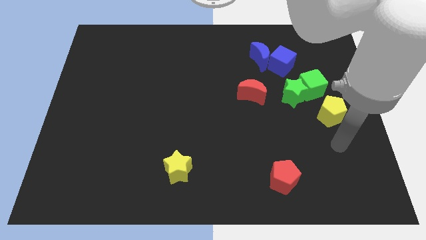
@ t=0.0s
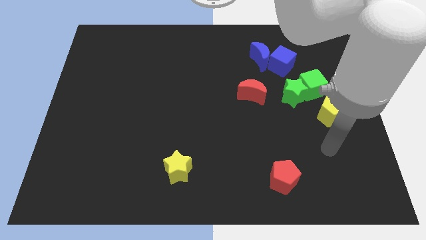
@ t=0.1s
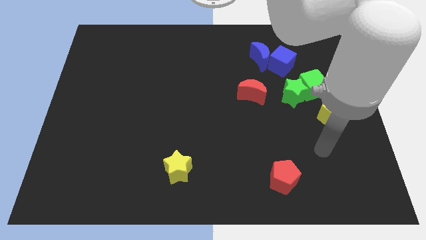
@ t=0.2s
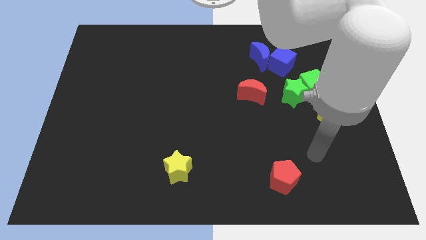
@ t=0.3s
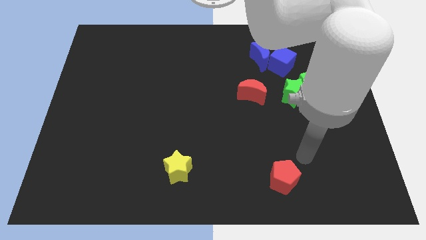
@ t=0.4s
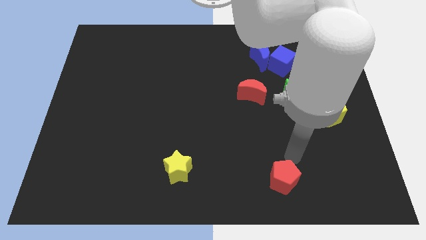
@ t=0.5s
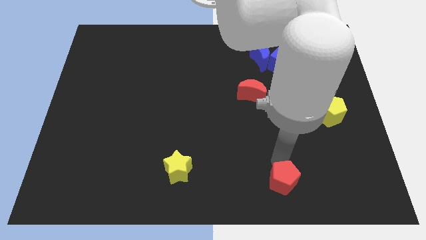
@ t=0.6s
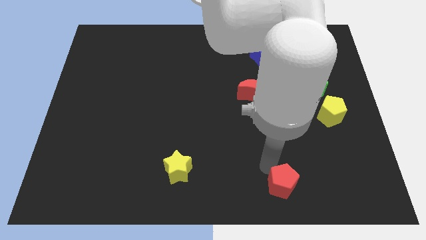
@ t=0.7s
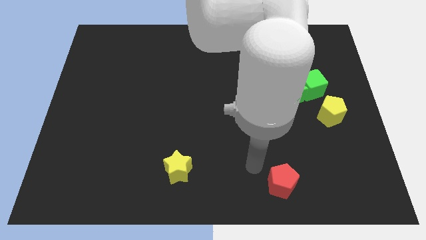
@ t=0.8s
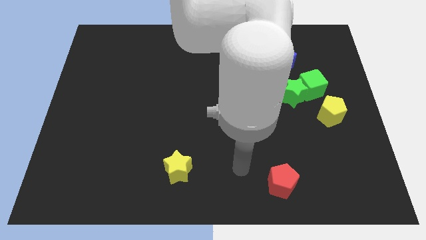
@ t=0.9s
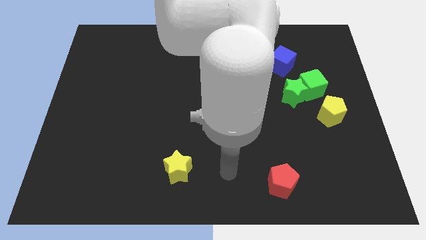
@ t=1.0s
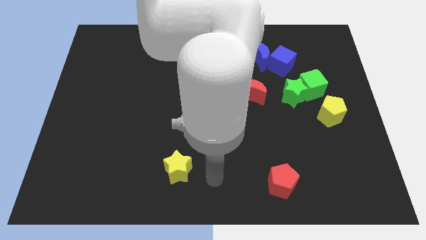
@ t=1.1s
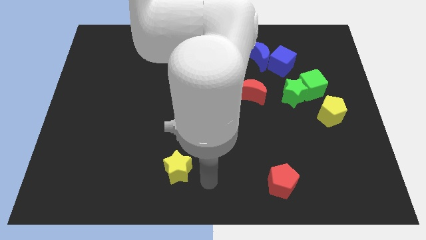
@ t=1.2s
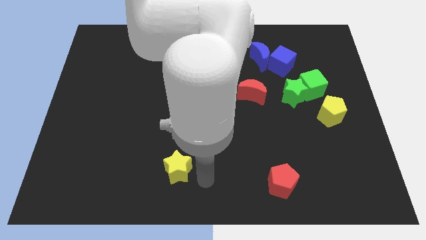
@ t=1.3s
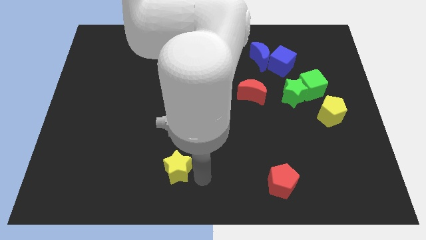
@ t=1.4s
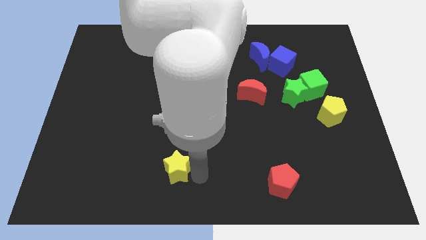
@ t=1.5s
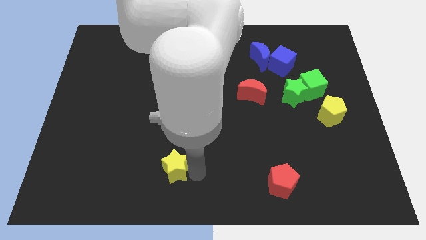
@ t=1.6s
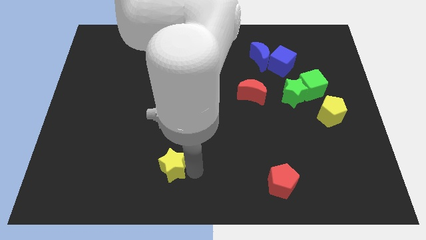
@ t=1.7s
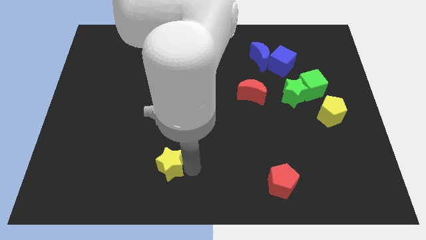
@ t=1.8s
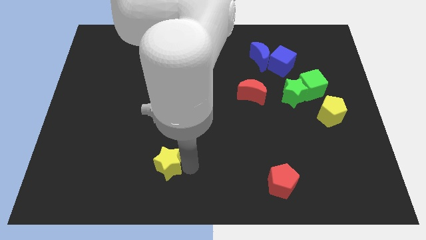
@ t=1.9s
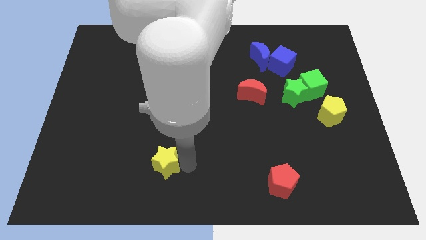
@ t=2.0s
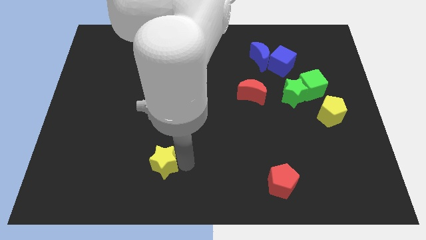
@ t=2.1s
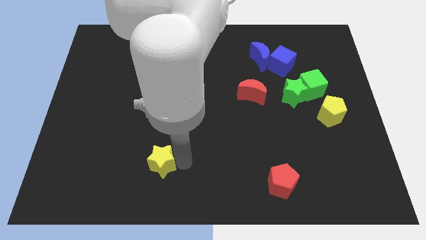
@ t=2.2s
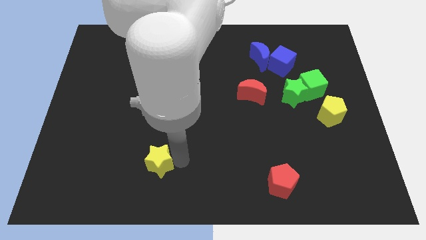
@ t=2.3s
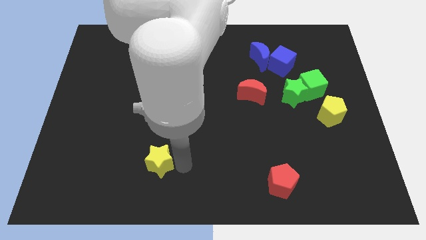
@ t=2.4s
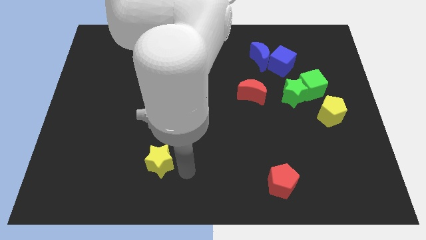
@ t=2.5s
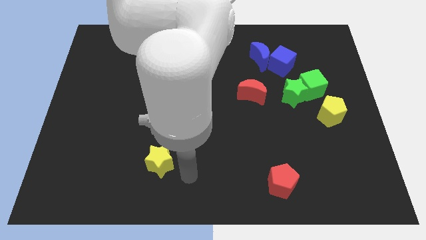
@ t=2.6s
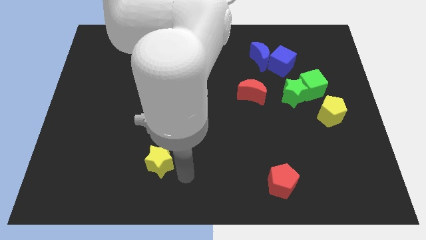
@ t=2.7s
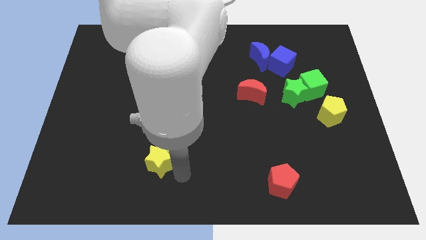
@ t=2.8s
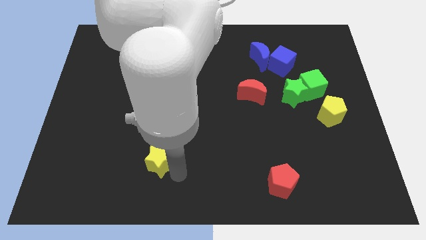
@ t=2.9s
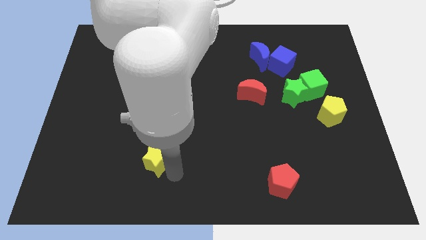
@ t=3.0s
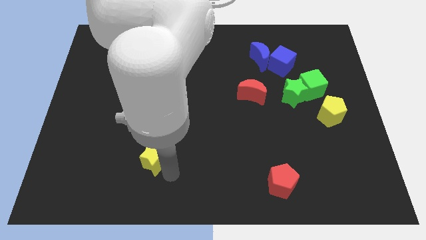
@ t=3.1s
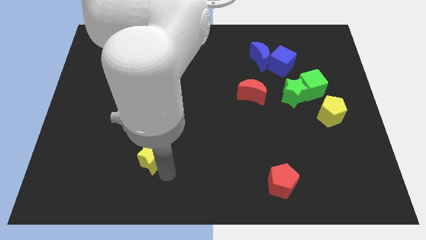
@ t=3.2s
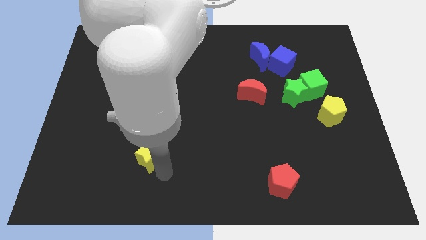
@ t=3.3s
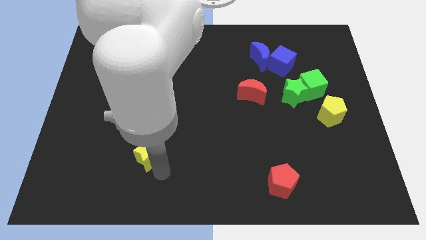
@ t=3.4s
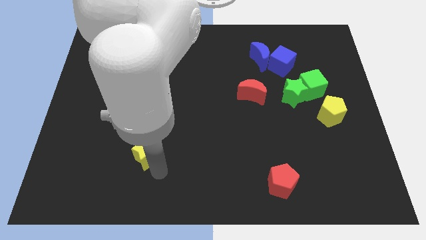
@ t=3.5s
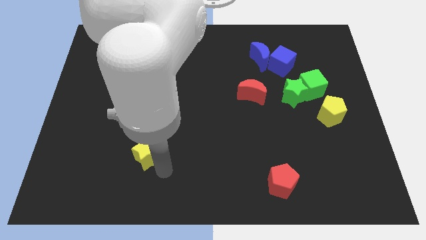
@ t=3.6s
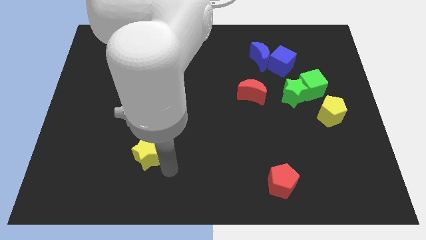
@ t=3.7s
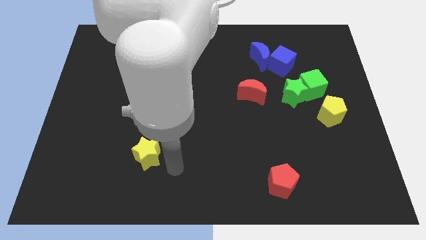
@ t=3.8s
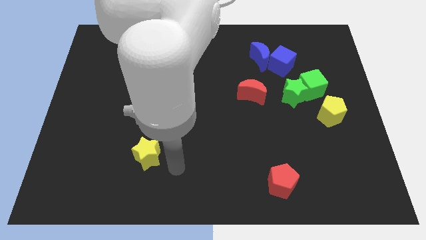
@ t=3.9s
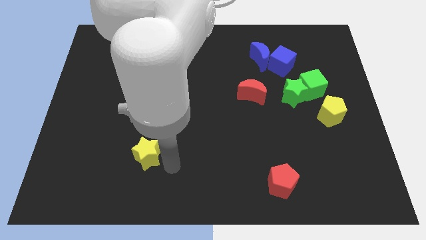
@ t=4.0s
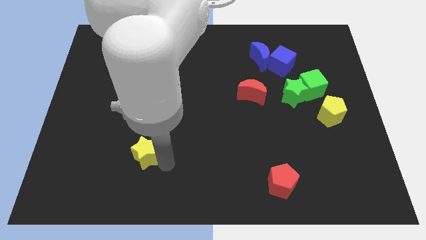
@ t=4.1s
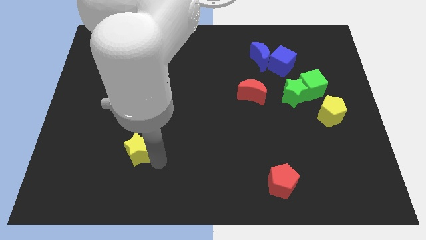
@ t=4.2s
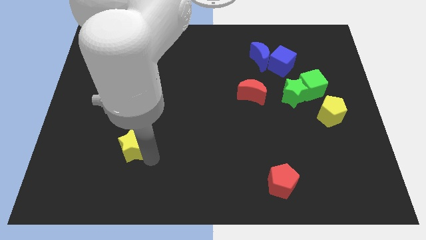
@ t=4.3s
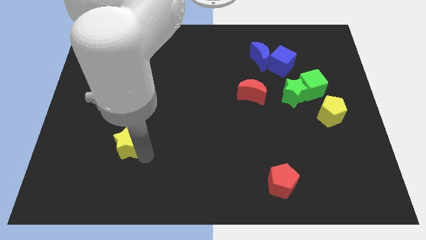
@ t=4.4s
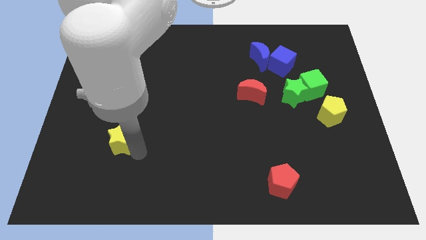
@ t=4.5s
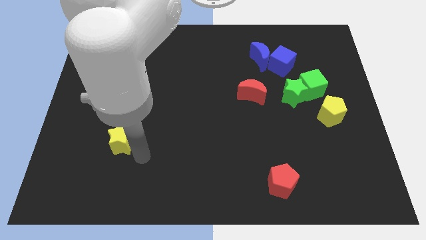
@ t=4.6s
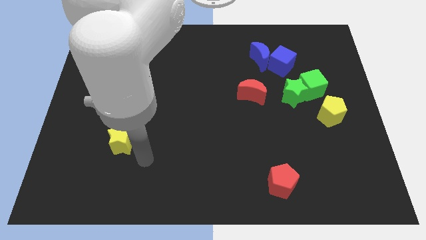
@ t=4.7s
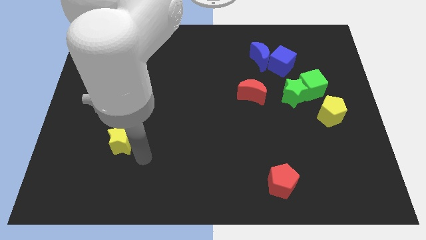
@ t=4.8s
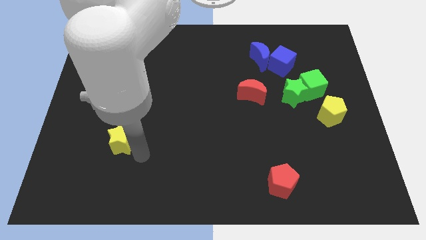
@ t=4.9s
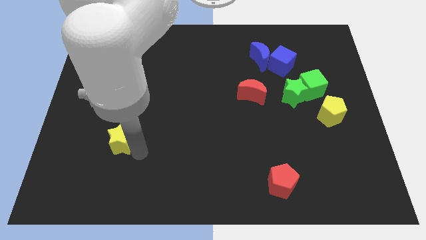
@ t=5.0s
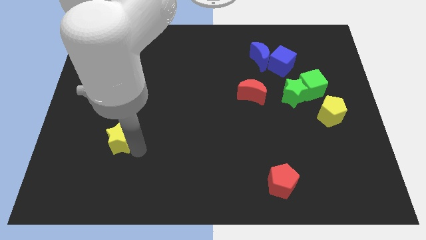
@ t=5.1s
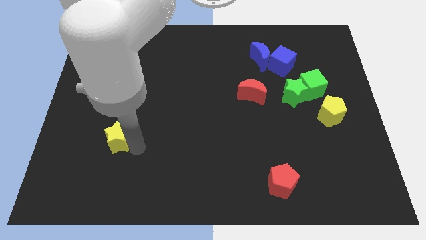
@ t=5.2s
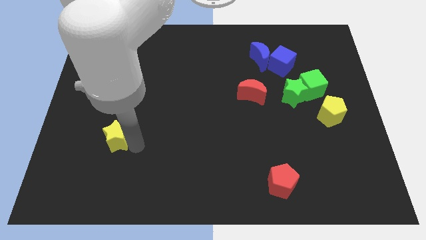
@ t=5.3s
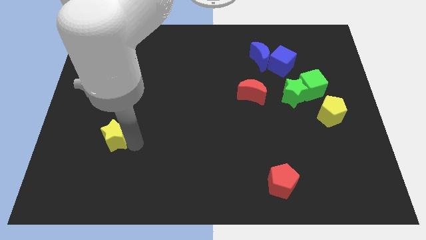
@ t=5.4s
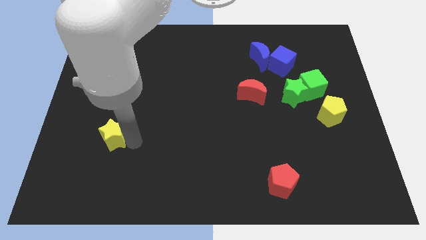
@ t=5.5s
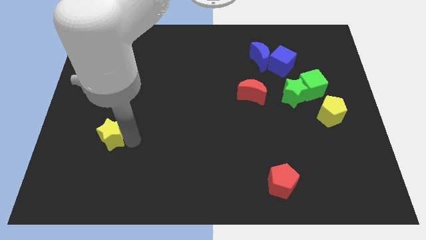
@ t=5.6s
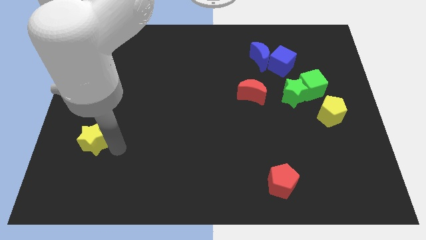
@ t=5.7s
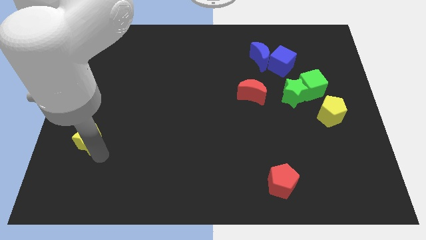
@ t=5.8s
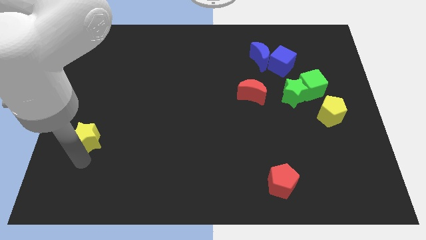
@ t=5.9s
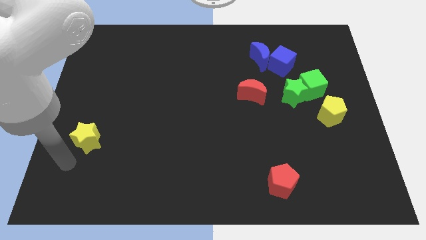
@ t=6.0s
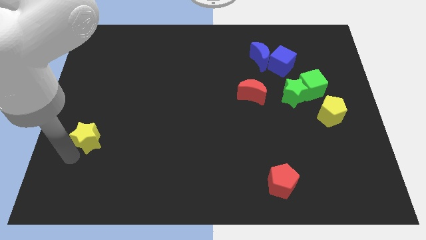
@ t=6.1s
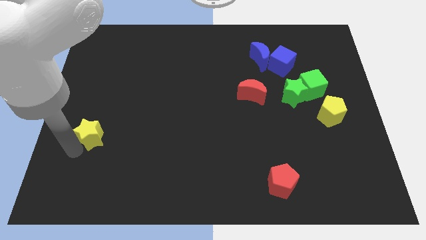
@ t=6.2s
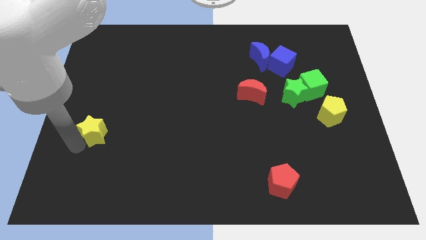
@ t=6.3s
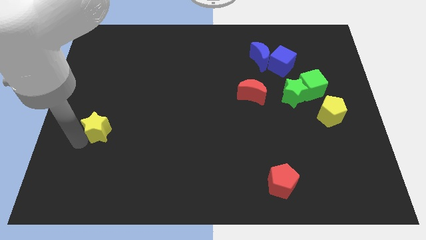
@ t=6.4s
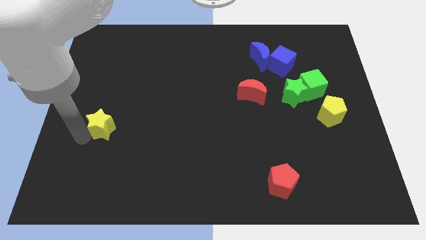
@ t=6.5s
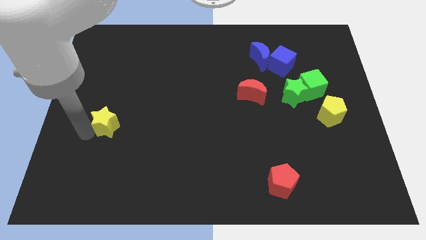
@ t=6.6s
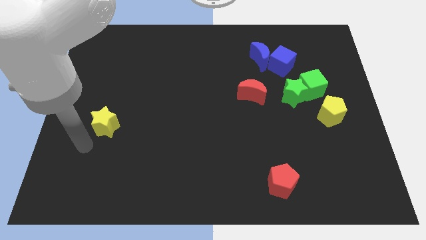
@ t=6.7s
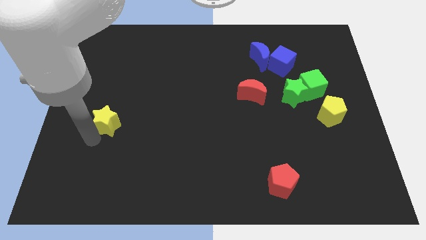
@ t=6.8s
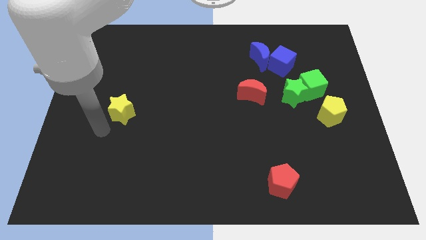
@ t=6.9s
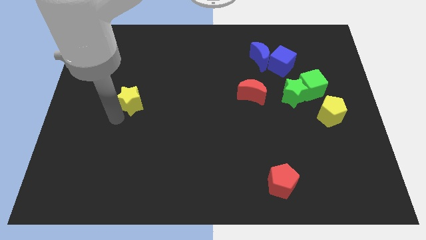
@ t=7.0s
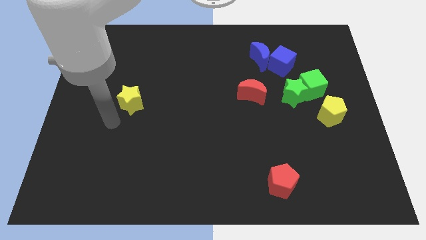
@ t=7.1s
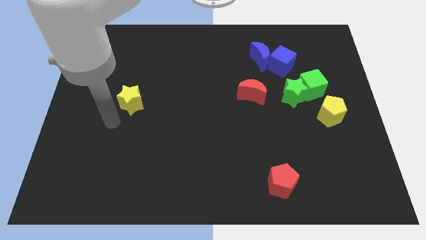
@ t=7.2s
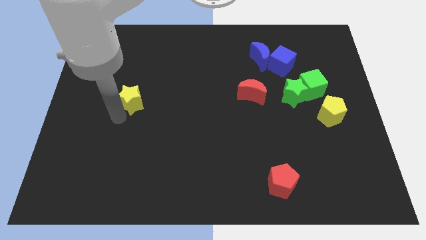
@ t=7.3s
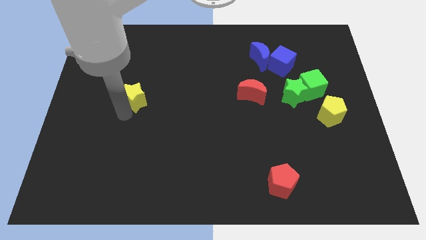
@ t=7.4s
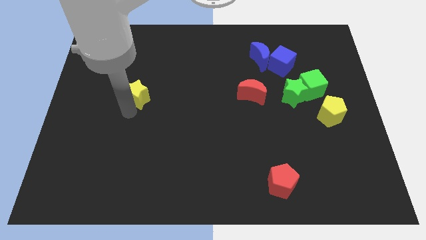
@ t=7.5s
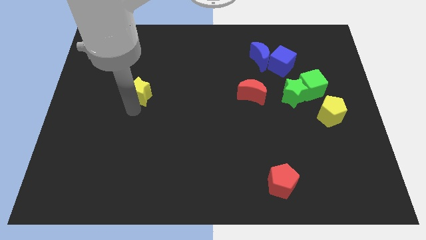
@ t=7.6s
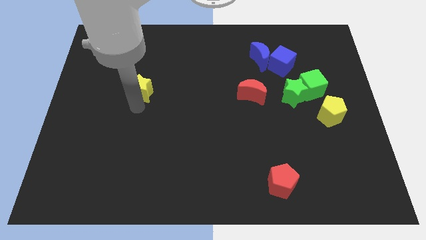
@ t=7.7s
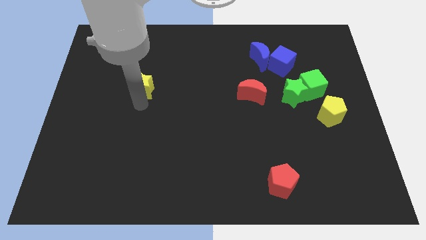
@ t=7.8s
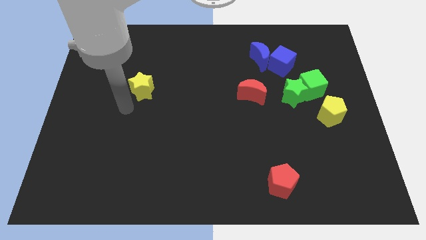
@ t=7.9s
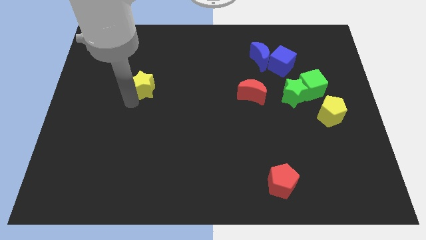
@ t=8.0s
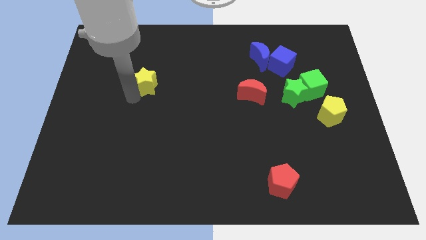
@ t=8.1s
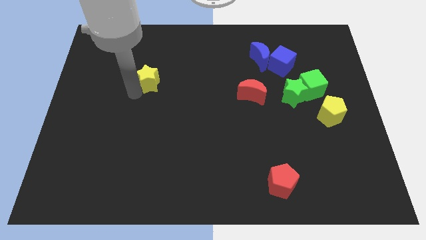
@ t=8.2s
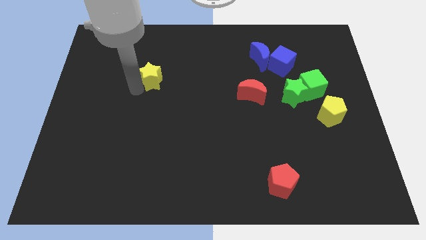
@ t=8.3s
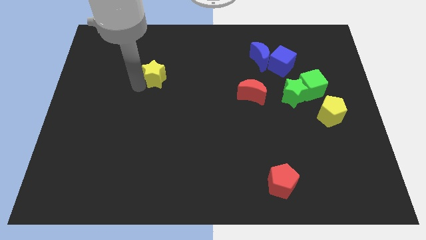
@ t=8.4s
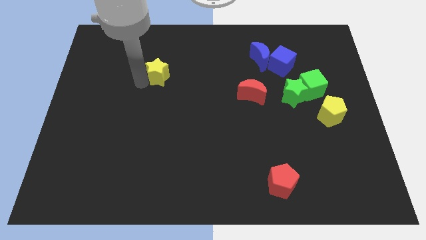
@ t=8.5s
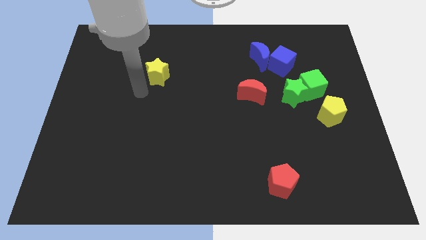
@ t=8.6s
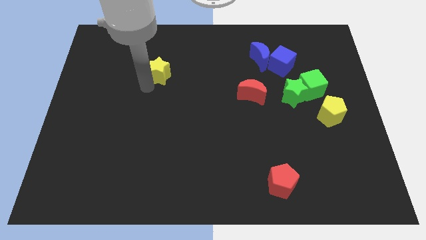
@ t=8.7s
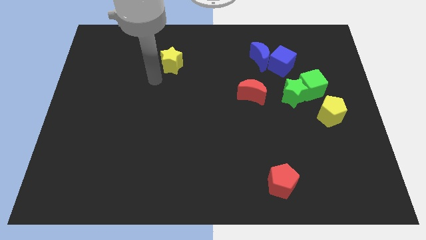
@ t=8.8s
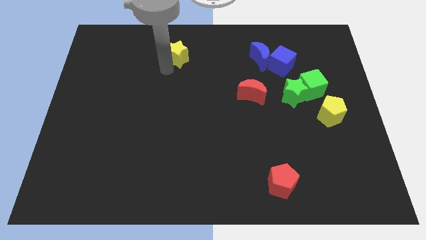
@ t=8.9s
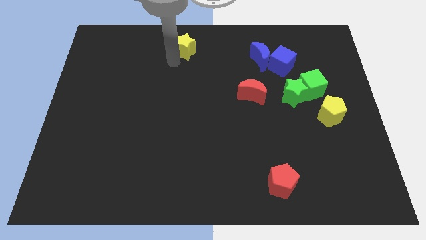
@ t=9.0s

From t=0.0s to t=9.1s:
slide the yellow star to the towards your base
